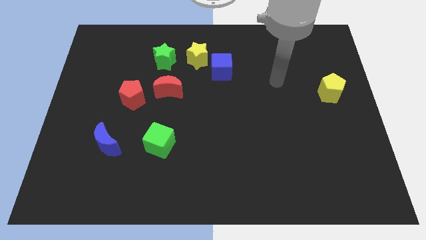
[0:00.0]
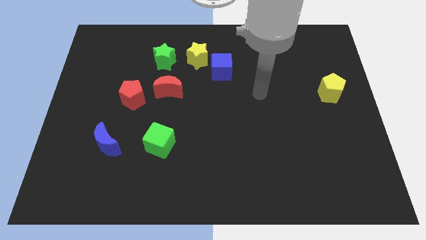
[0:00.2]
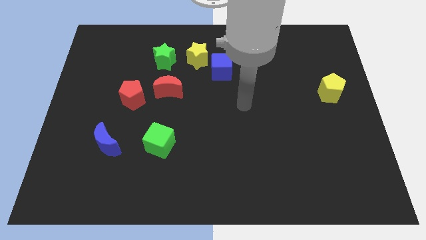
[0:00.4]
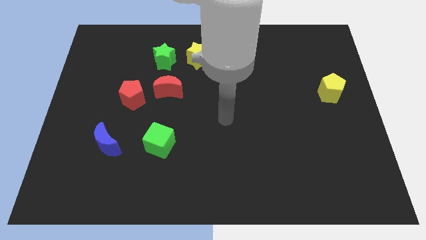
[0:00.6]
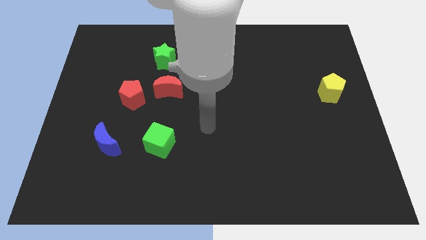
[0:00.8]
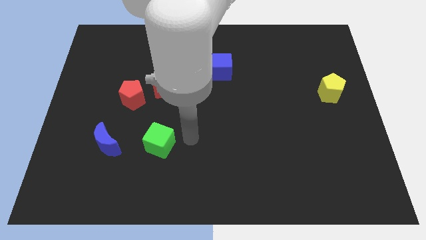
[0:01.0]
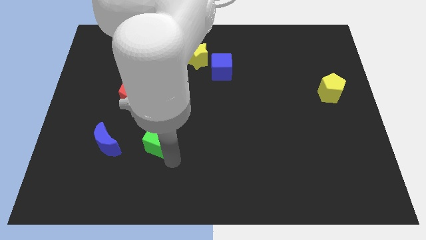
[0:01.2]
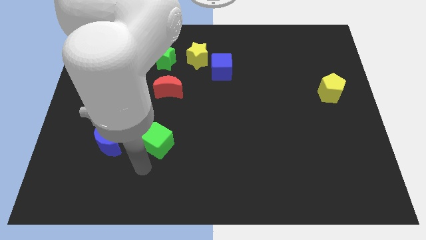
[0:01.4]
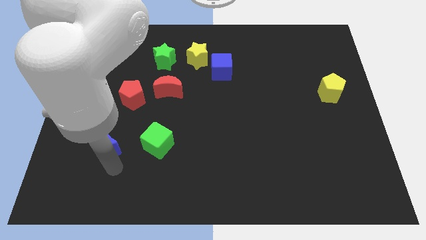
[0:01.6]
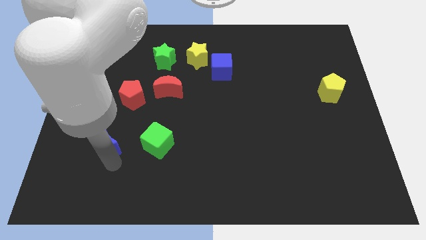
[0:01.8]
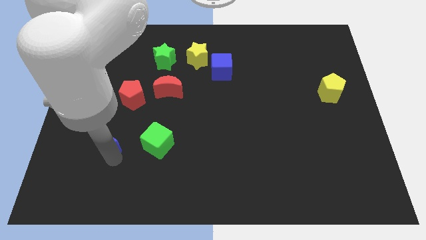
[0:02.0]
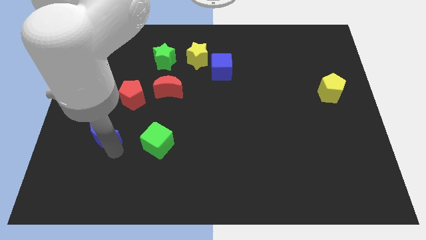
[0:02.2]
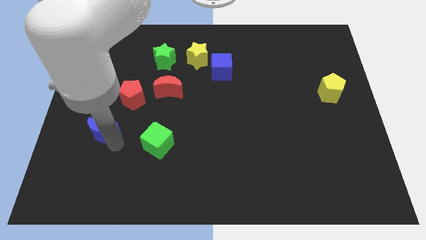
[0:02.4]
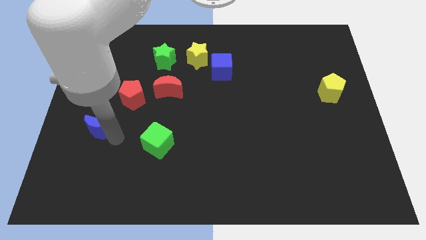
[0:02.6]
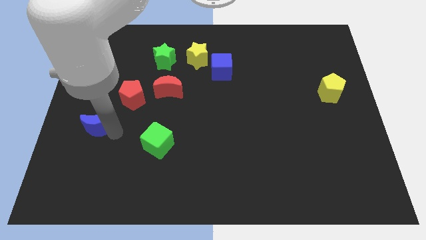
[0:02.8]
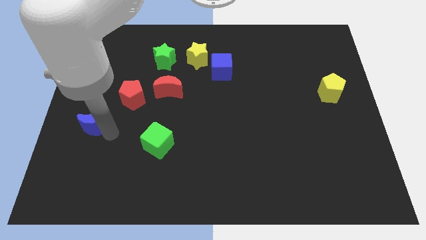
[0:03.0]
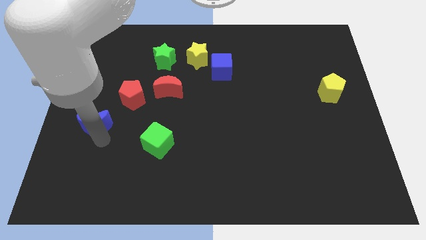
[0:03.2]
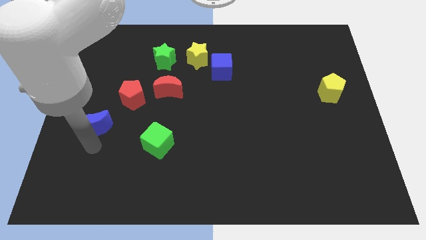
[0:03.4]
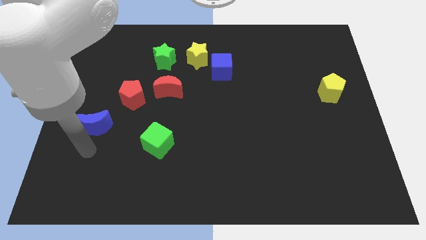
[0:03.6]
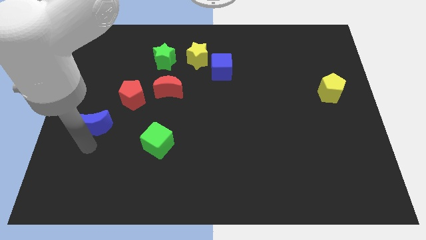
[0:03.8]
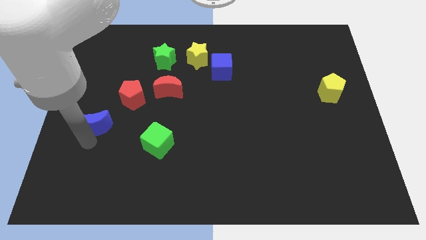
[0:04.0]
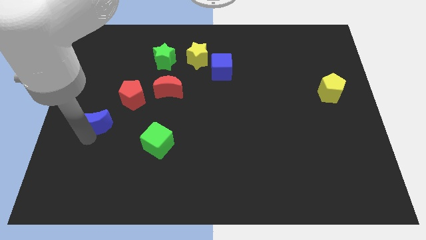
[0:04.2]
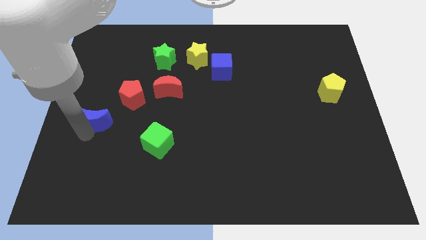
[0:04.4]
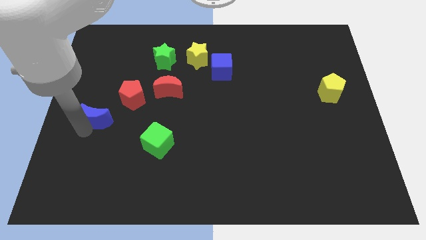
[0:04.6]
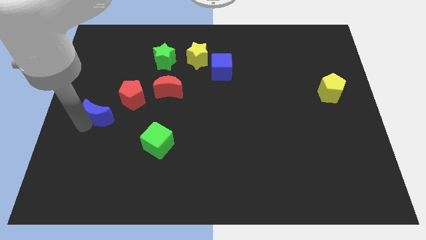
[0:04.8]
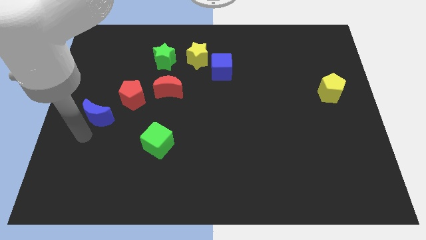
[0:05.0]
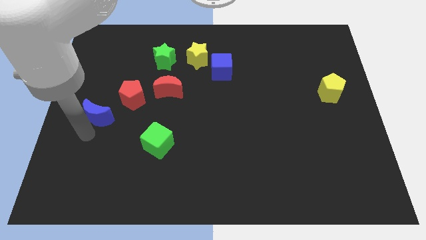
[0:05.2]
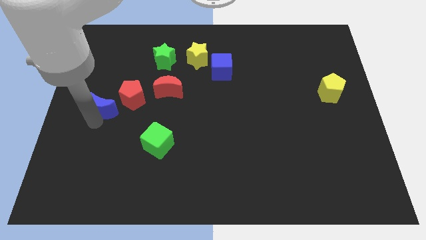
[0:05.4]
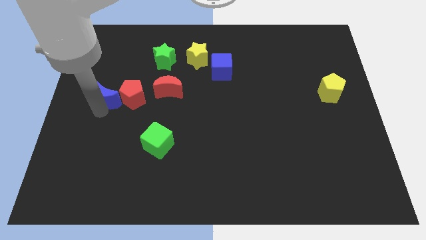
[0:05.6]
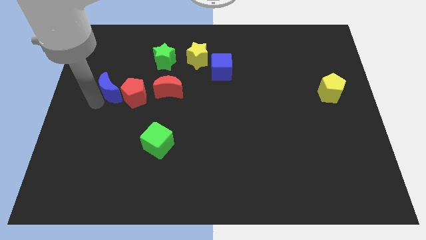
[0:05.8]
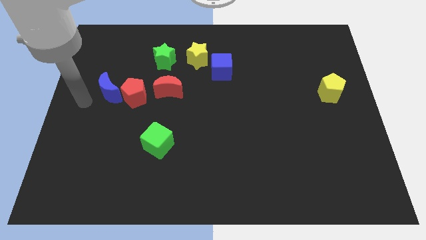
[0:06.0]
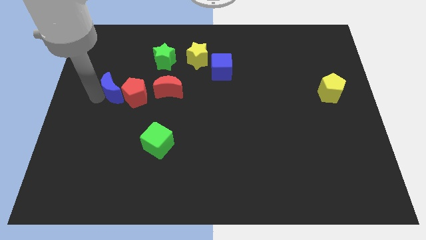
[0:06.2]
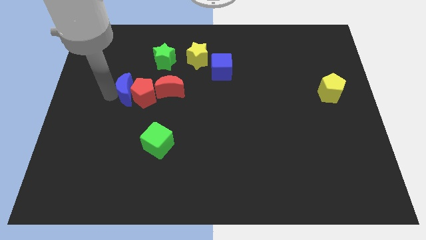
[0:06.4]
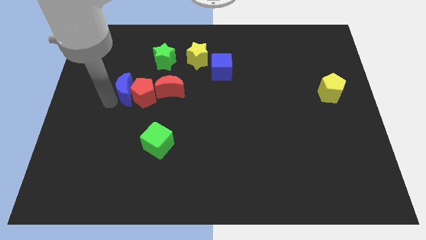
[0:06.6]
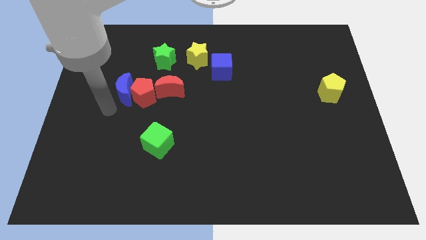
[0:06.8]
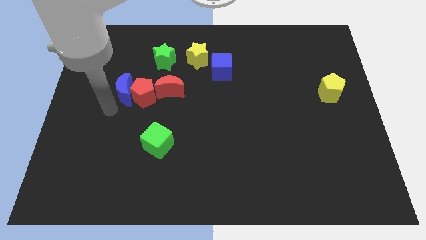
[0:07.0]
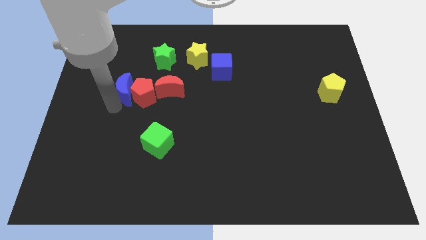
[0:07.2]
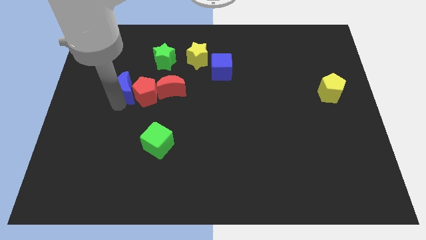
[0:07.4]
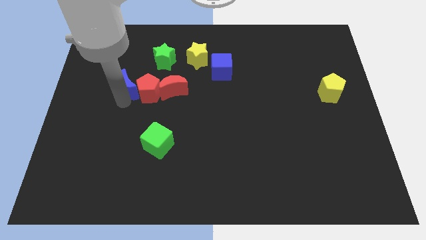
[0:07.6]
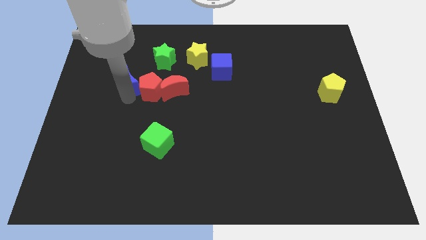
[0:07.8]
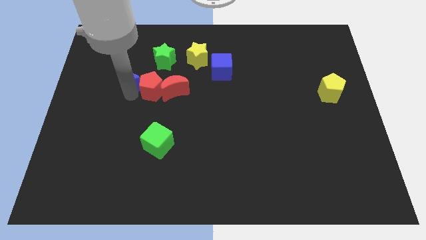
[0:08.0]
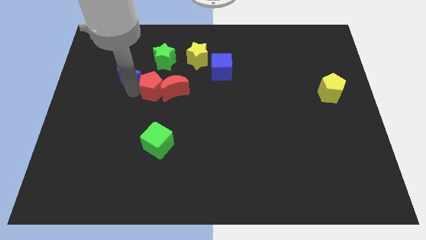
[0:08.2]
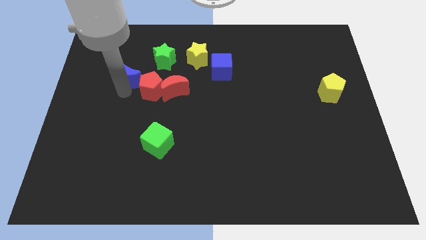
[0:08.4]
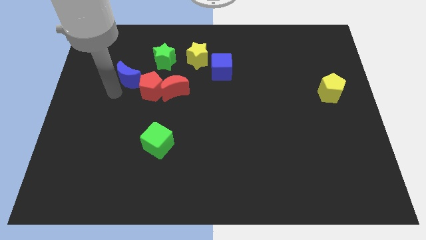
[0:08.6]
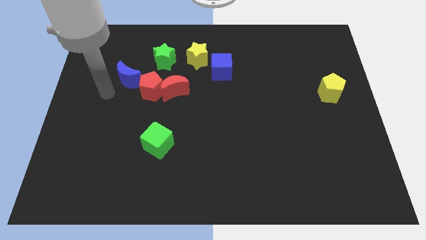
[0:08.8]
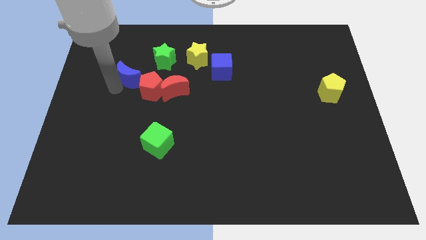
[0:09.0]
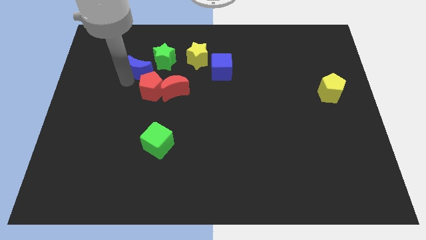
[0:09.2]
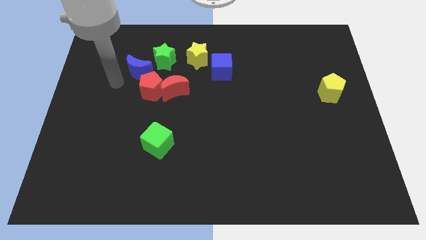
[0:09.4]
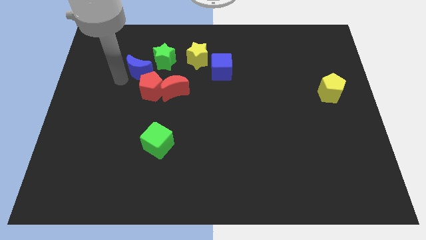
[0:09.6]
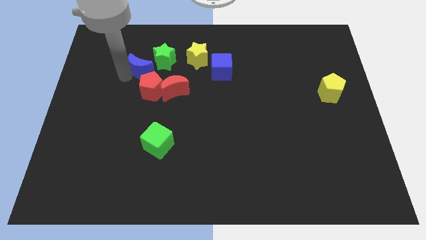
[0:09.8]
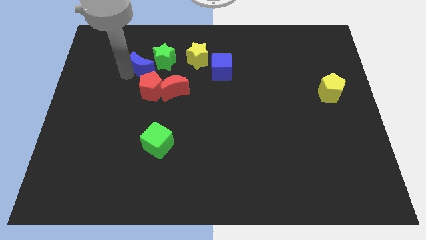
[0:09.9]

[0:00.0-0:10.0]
slide the blue moon towards the green star

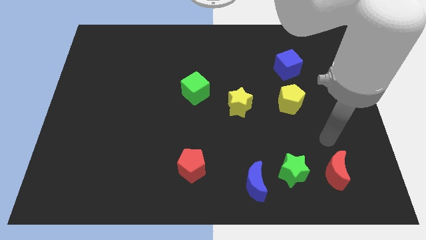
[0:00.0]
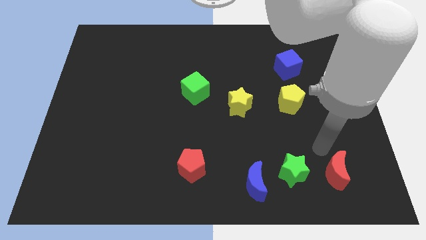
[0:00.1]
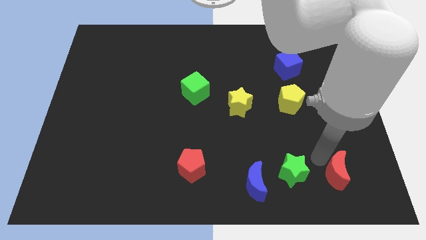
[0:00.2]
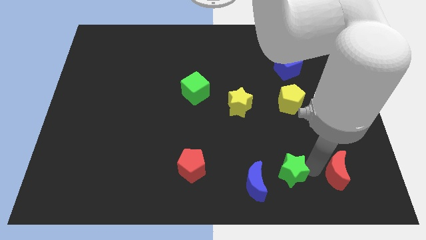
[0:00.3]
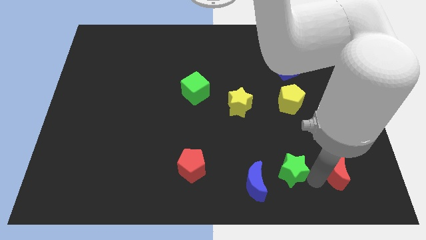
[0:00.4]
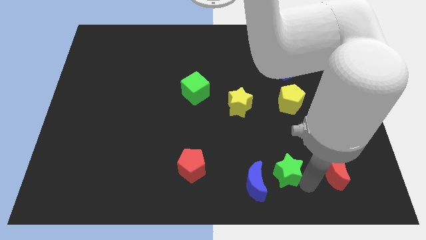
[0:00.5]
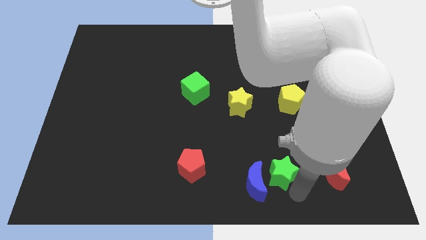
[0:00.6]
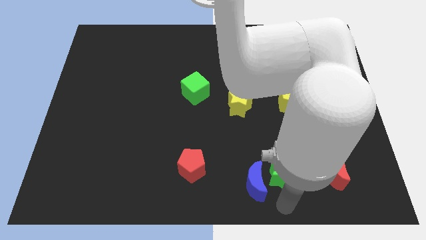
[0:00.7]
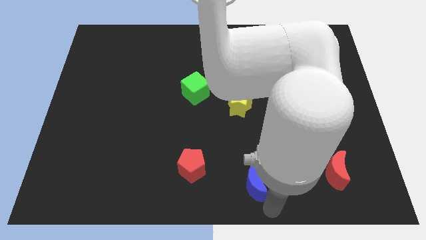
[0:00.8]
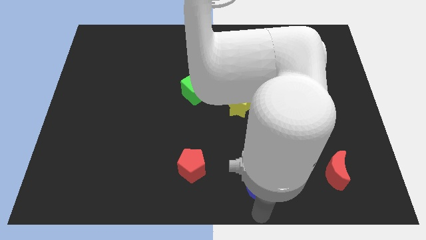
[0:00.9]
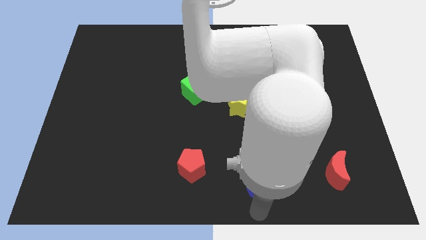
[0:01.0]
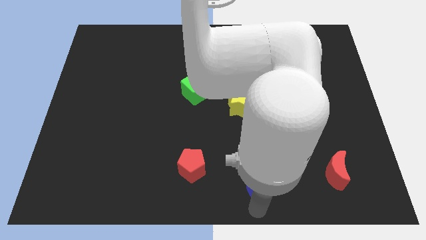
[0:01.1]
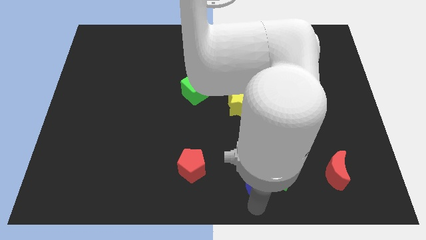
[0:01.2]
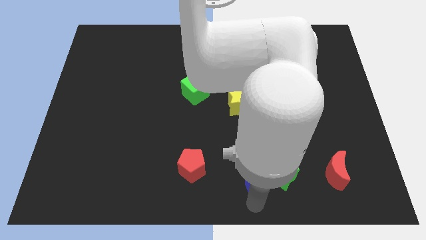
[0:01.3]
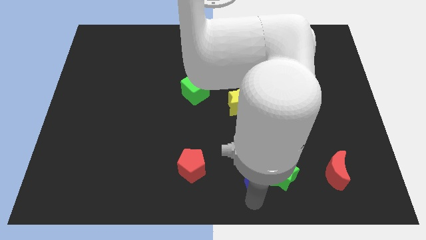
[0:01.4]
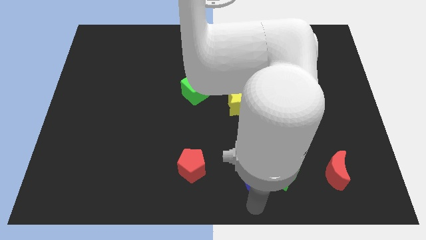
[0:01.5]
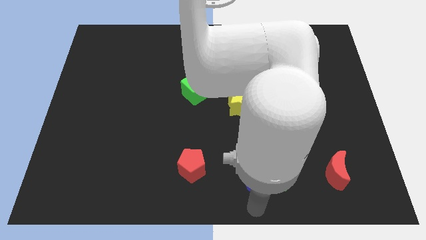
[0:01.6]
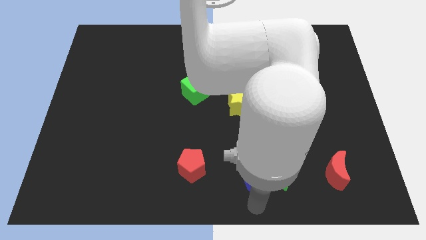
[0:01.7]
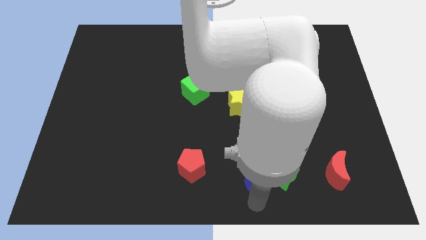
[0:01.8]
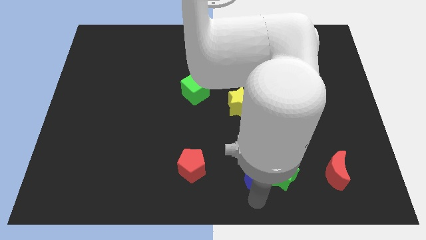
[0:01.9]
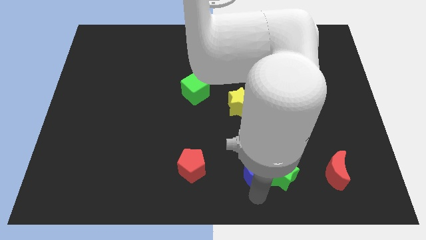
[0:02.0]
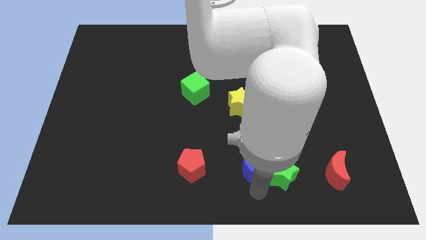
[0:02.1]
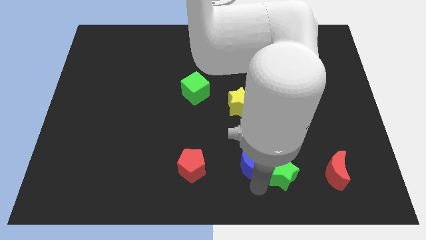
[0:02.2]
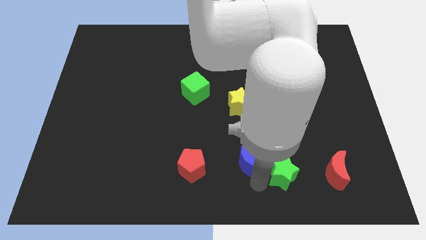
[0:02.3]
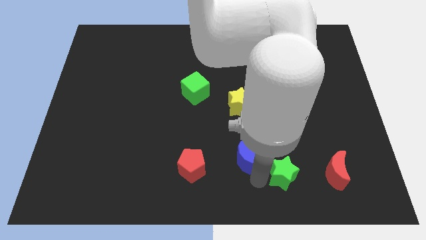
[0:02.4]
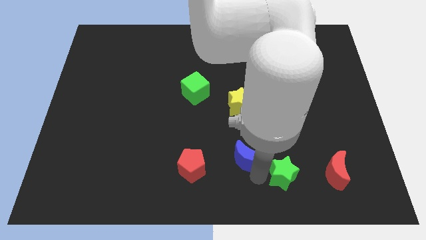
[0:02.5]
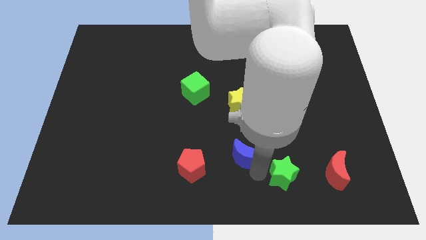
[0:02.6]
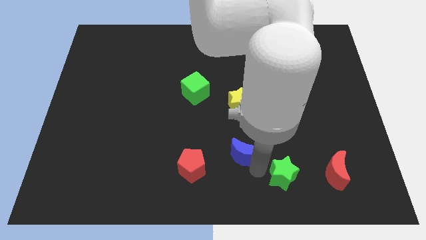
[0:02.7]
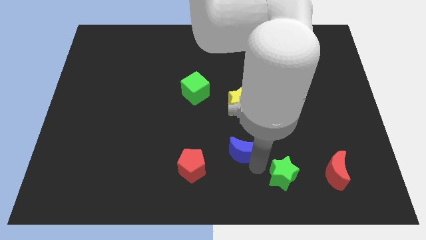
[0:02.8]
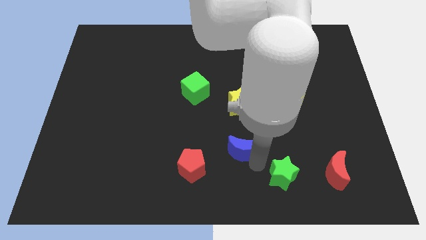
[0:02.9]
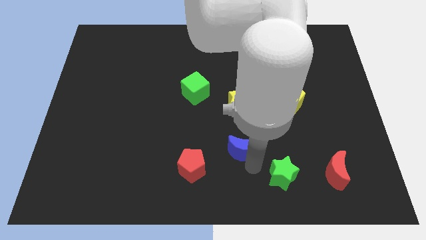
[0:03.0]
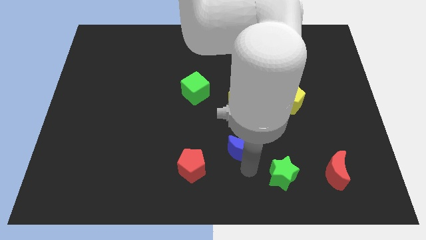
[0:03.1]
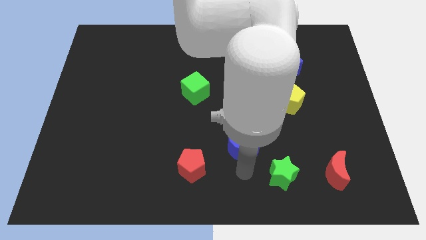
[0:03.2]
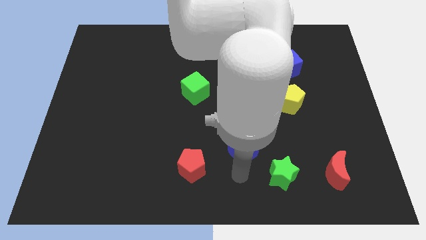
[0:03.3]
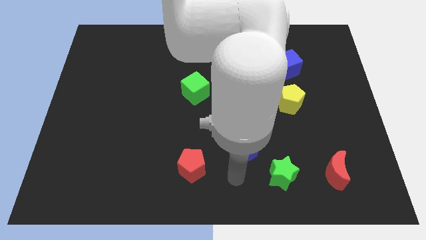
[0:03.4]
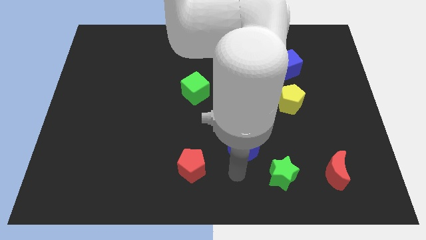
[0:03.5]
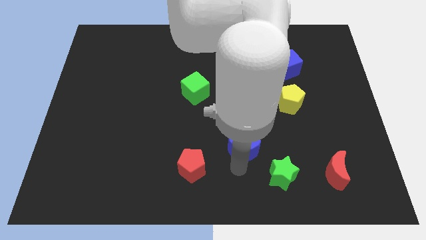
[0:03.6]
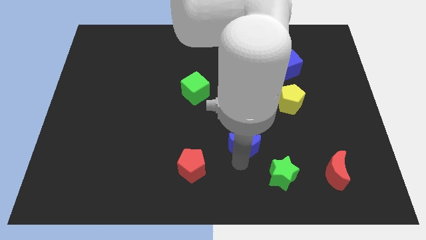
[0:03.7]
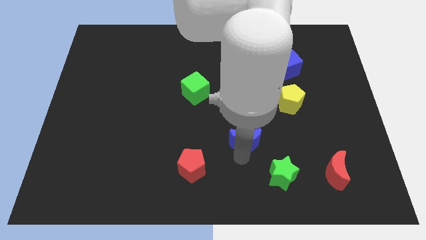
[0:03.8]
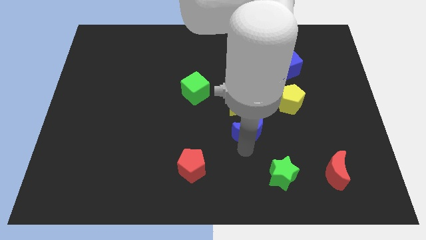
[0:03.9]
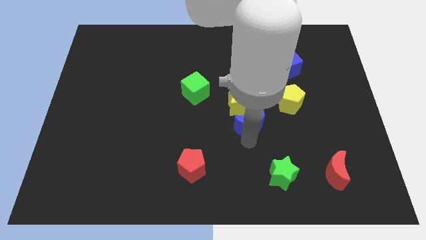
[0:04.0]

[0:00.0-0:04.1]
move the blue moon towards the yellow star
